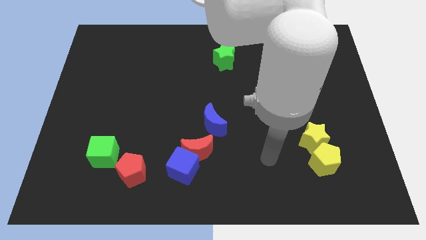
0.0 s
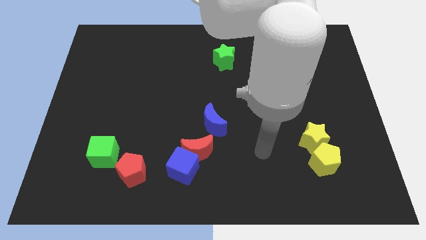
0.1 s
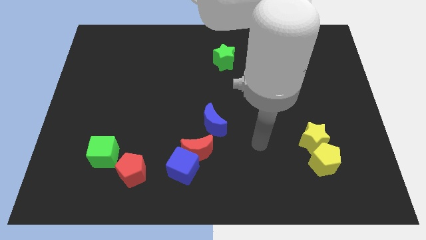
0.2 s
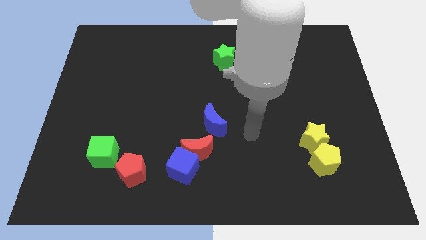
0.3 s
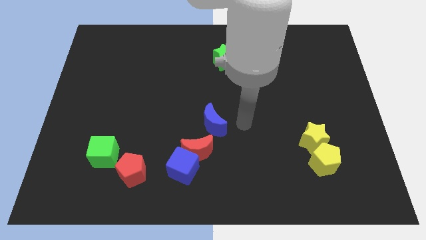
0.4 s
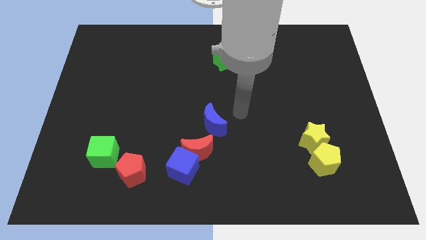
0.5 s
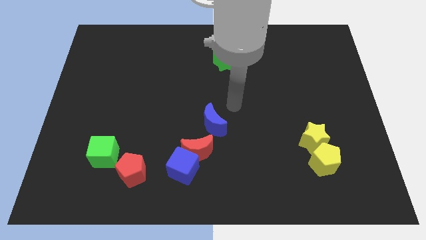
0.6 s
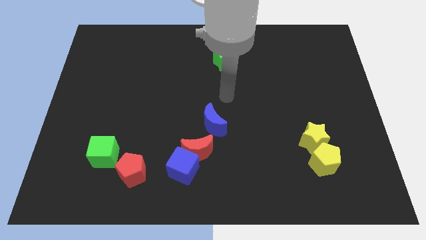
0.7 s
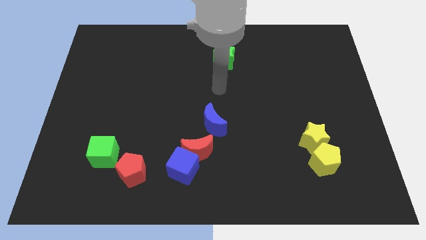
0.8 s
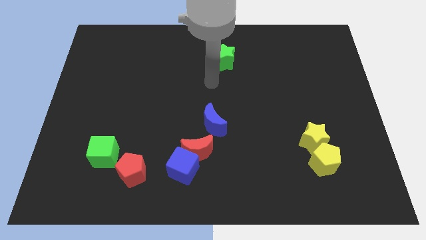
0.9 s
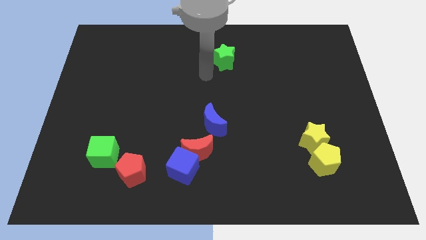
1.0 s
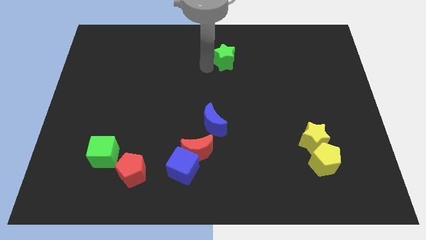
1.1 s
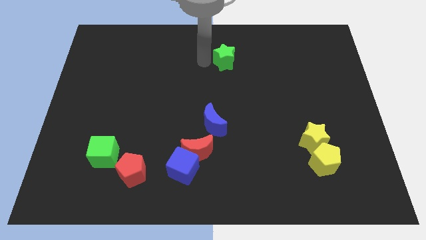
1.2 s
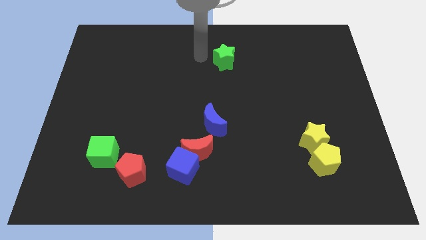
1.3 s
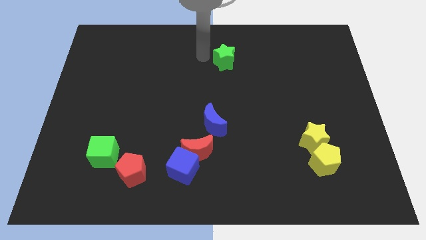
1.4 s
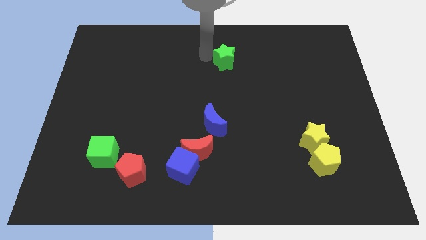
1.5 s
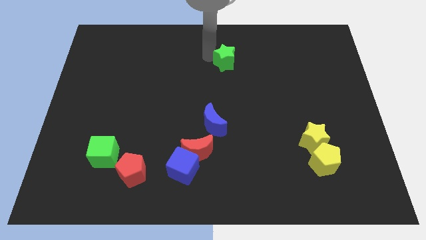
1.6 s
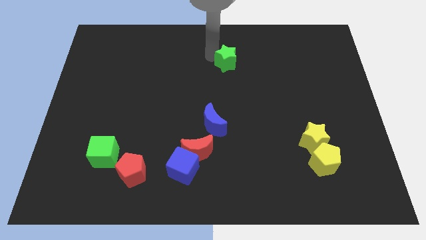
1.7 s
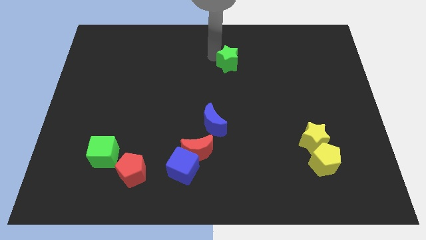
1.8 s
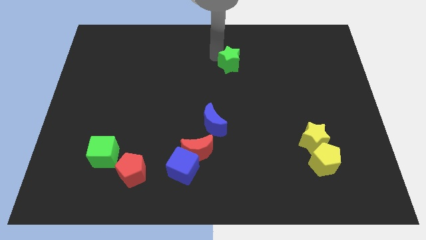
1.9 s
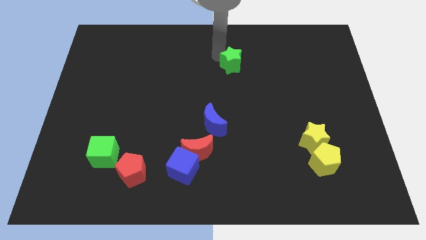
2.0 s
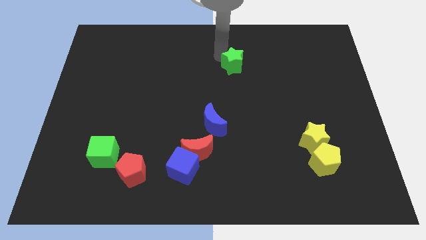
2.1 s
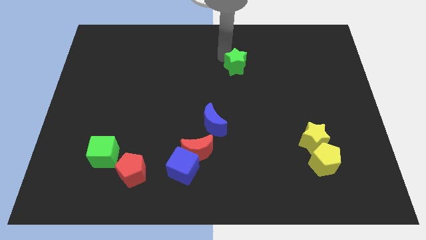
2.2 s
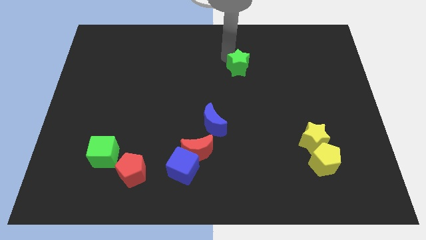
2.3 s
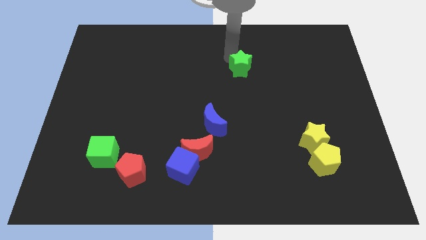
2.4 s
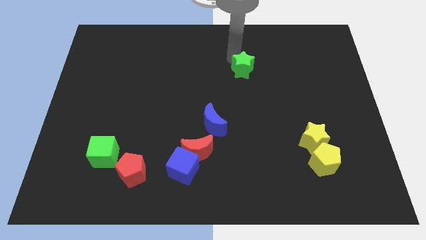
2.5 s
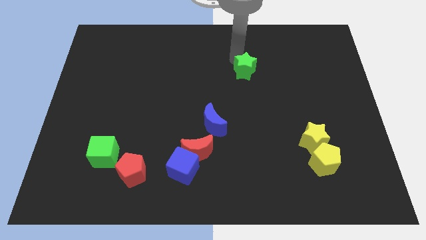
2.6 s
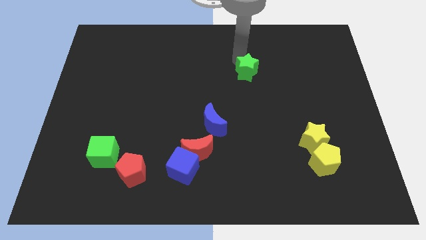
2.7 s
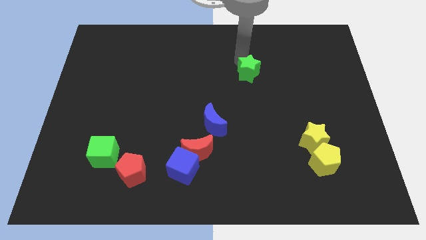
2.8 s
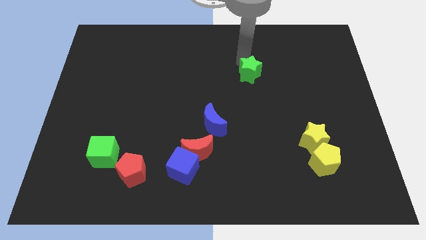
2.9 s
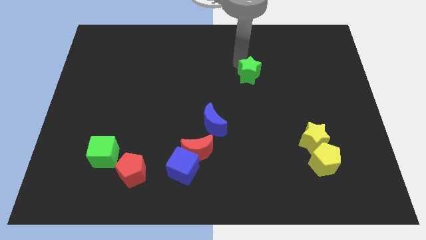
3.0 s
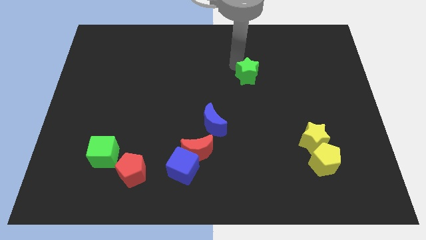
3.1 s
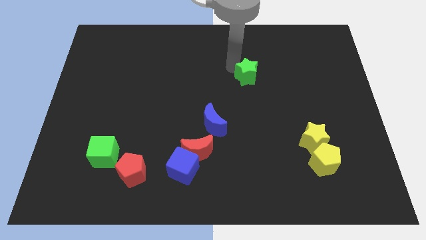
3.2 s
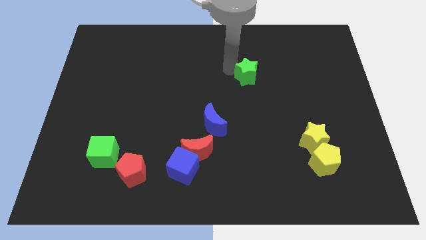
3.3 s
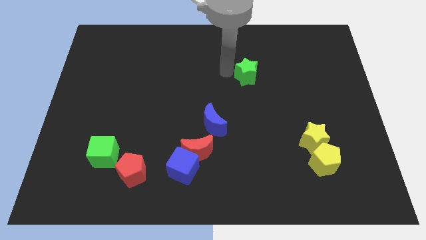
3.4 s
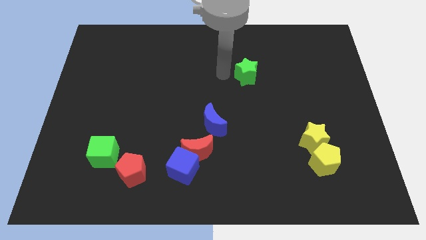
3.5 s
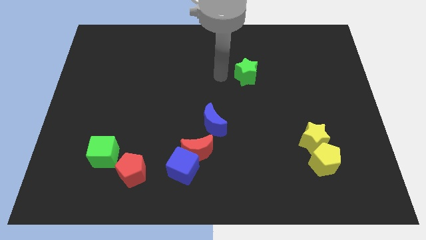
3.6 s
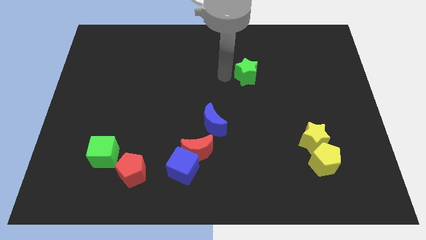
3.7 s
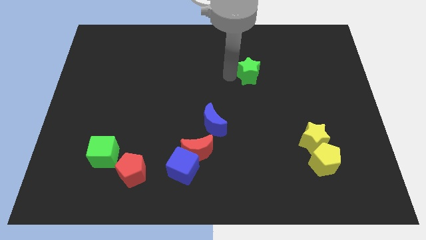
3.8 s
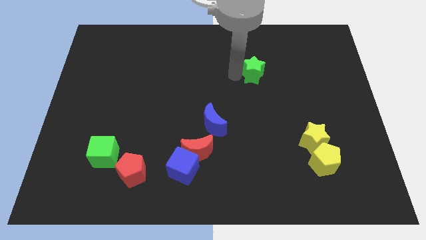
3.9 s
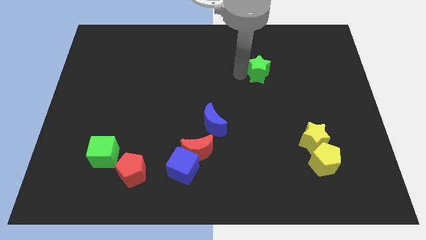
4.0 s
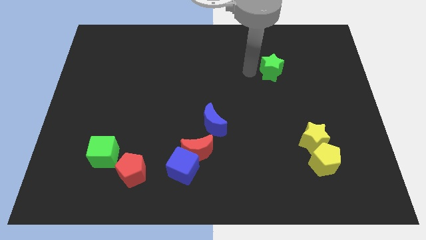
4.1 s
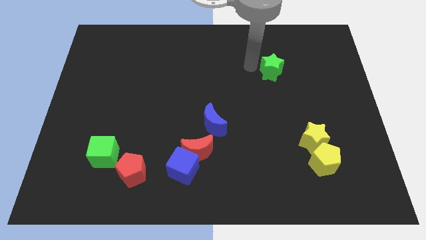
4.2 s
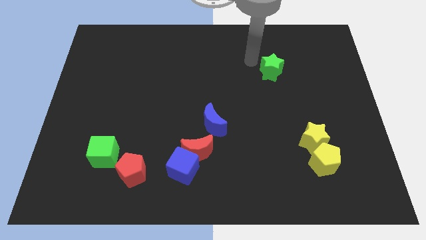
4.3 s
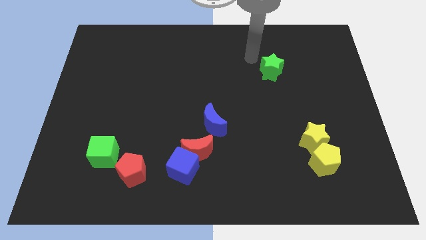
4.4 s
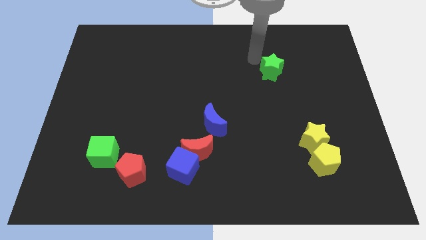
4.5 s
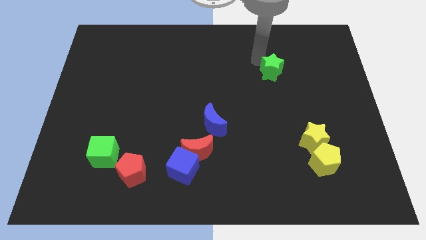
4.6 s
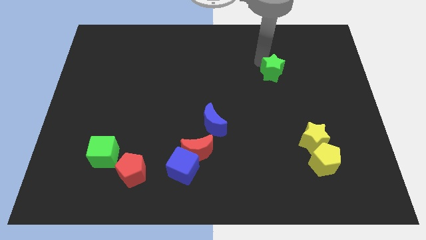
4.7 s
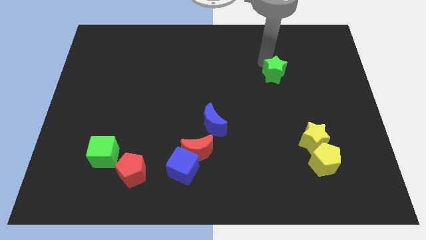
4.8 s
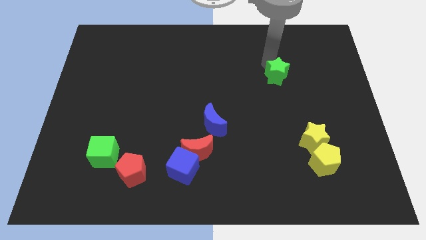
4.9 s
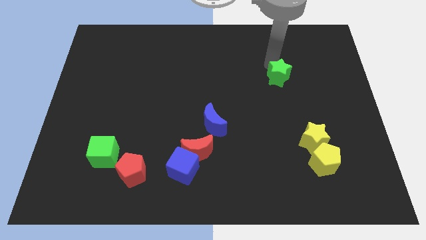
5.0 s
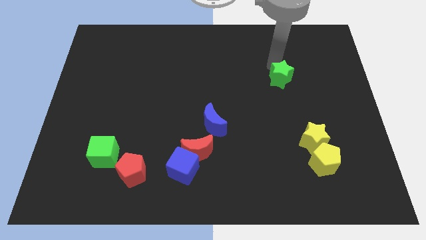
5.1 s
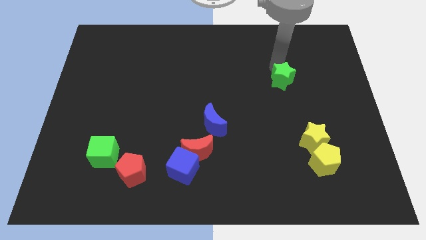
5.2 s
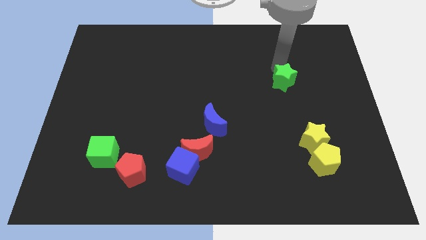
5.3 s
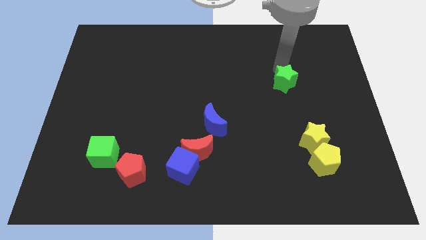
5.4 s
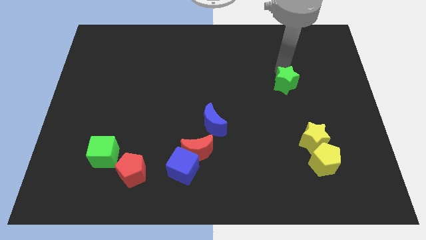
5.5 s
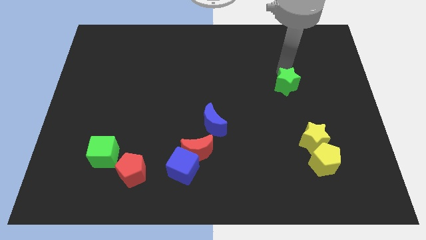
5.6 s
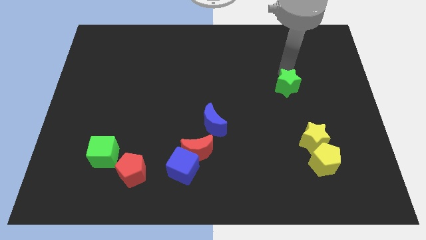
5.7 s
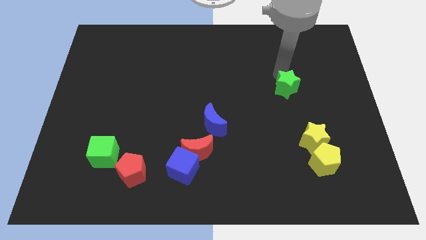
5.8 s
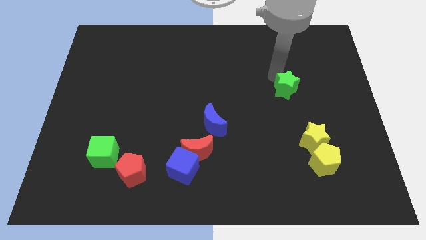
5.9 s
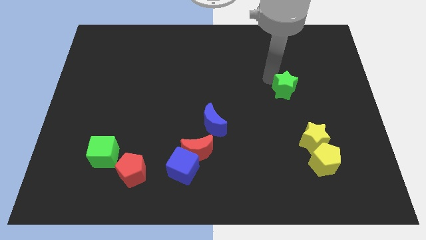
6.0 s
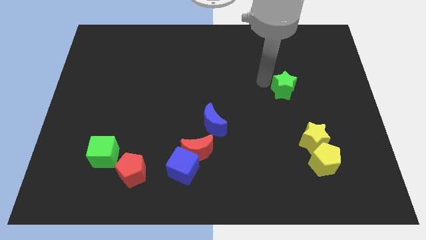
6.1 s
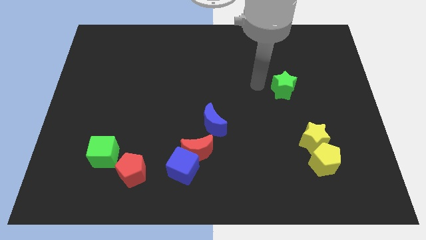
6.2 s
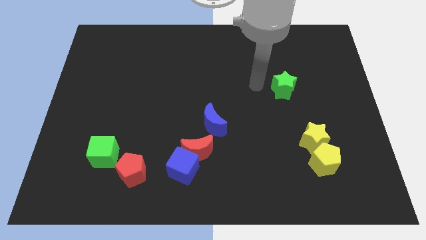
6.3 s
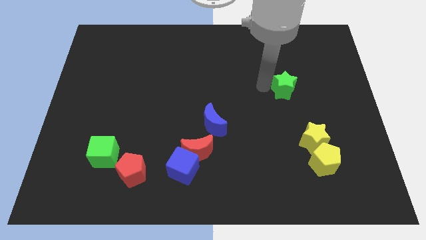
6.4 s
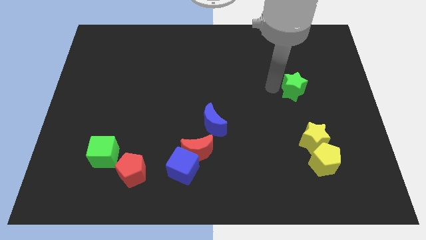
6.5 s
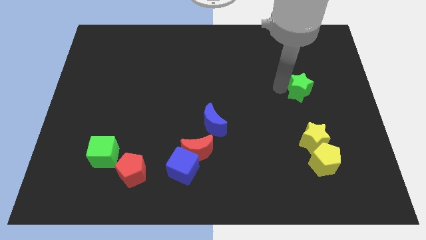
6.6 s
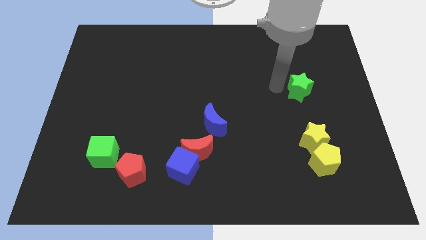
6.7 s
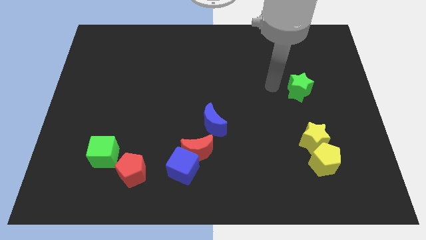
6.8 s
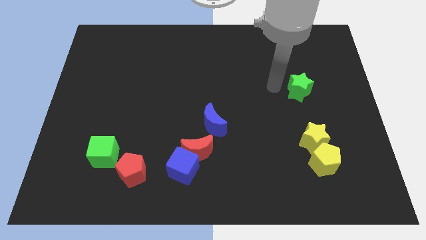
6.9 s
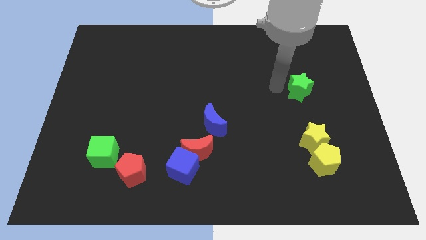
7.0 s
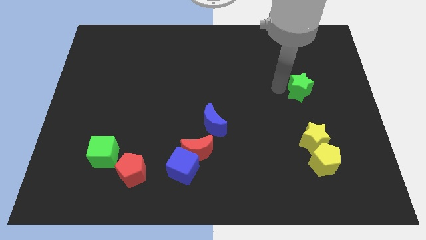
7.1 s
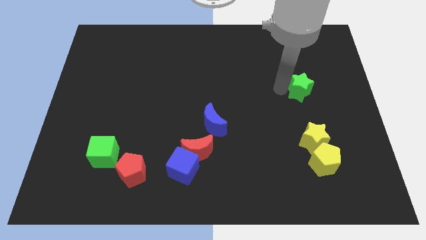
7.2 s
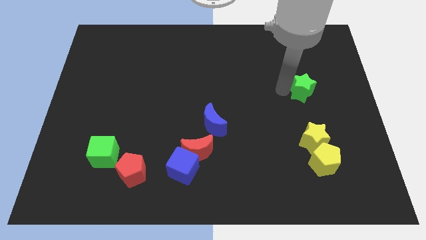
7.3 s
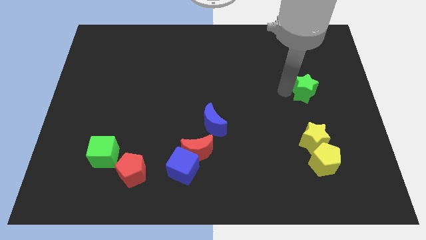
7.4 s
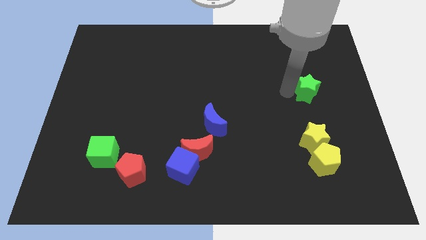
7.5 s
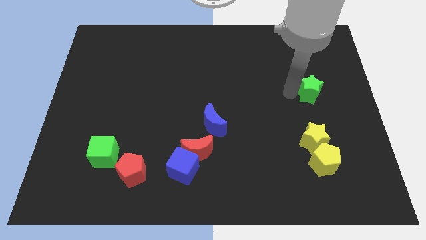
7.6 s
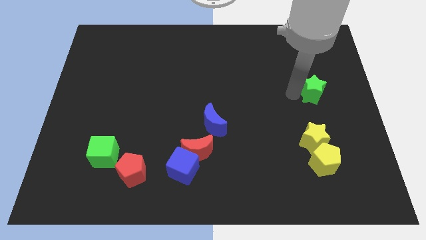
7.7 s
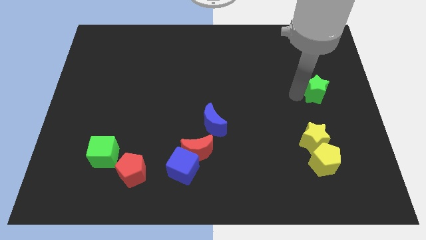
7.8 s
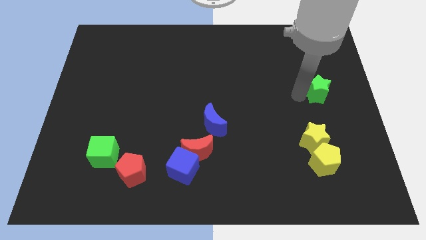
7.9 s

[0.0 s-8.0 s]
push the green star to the center right
